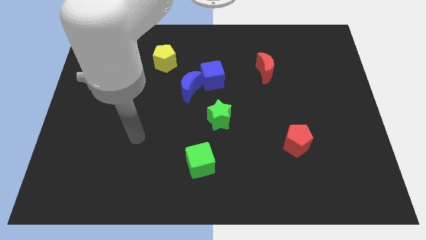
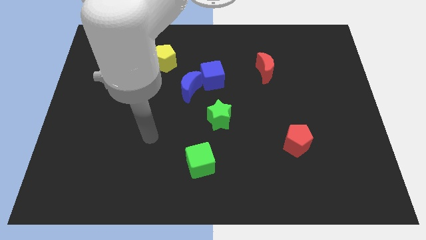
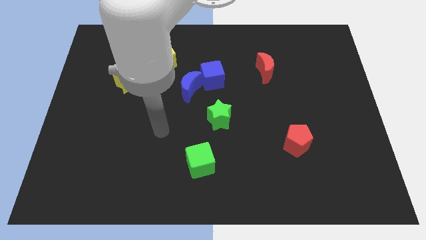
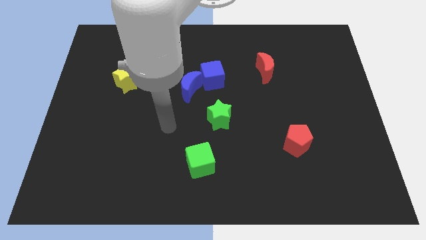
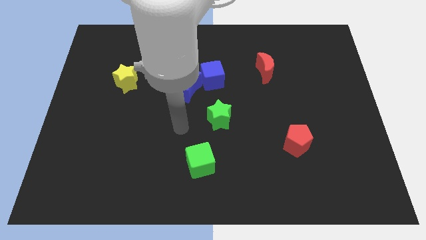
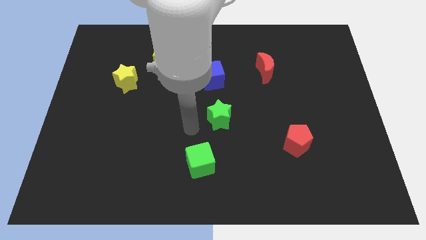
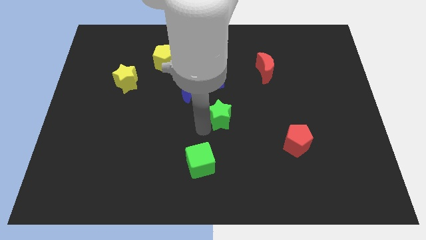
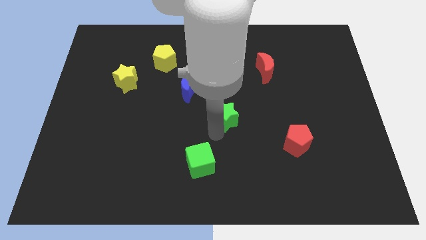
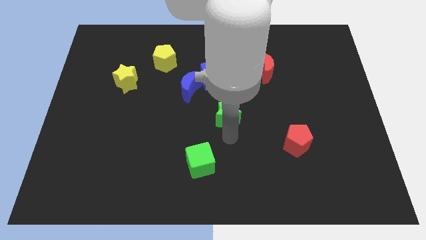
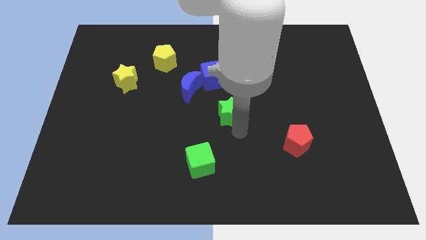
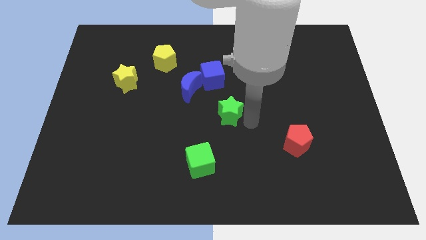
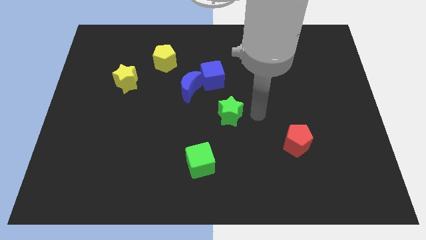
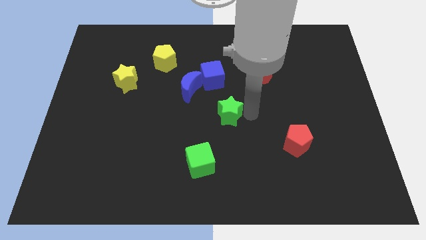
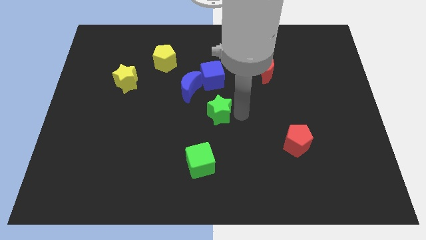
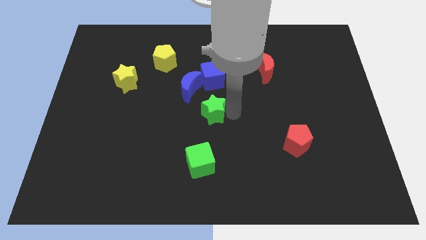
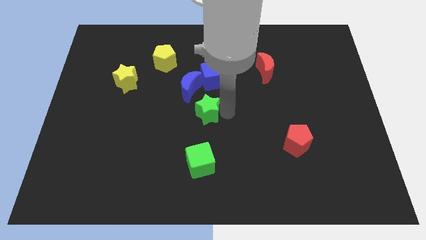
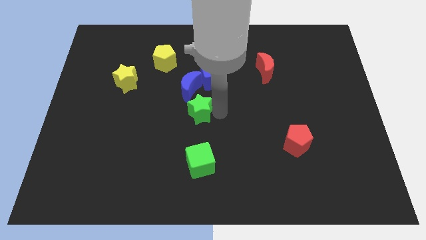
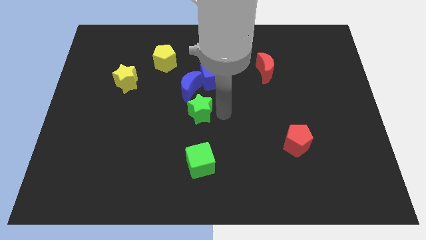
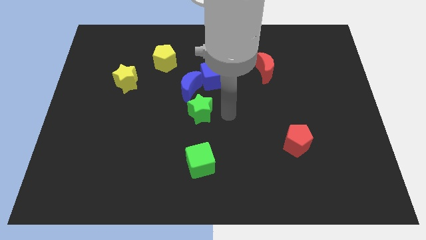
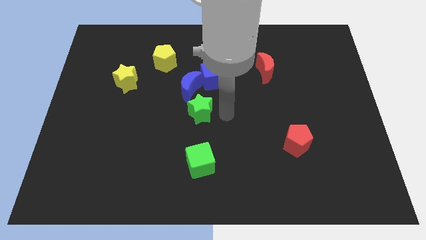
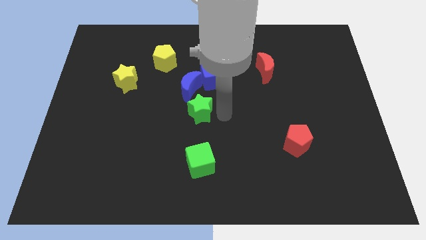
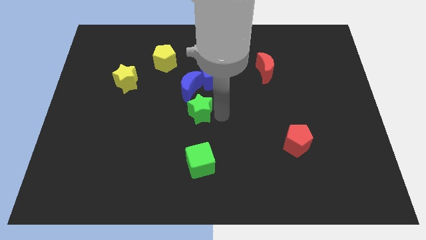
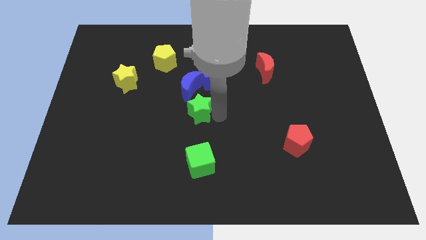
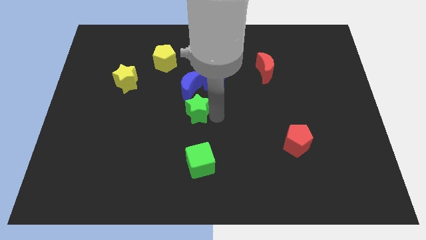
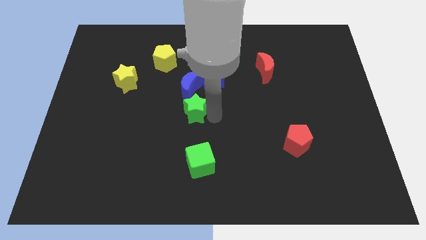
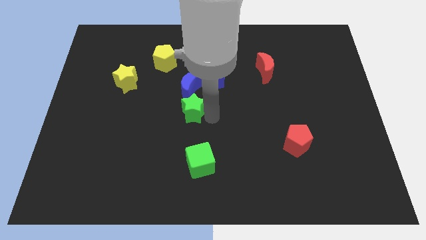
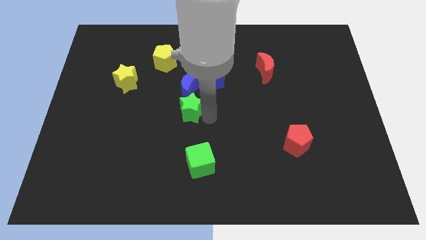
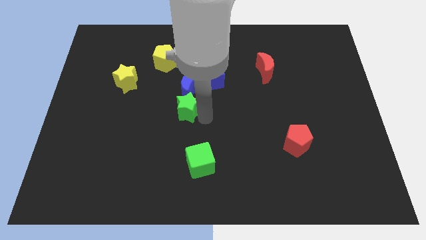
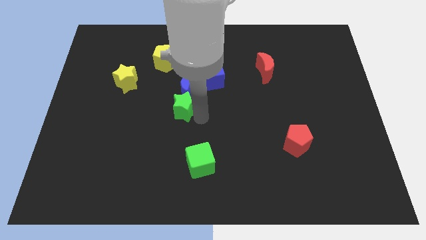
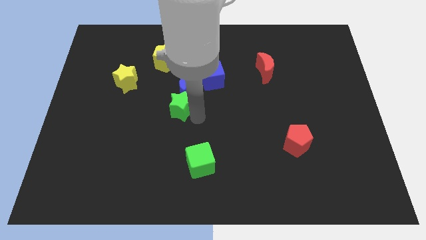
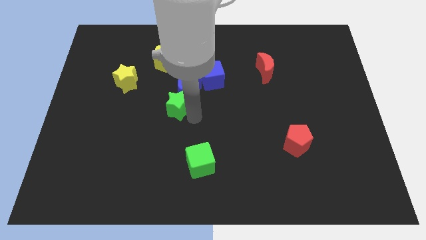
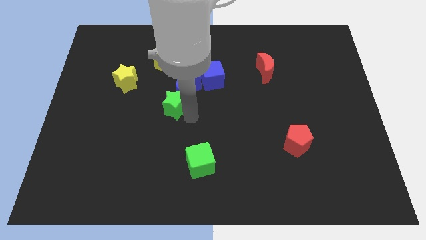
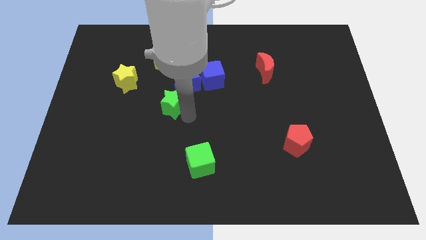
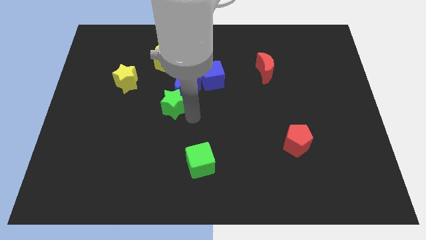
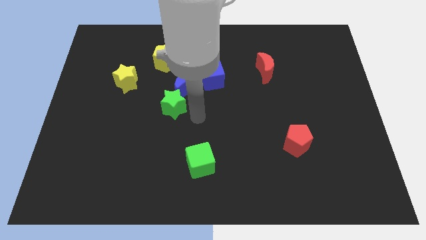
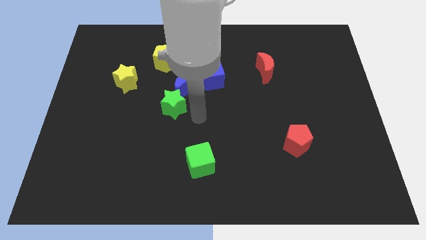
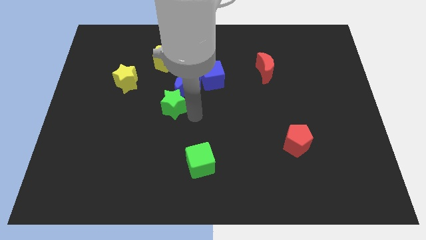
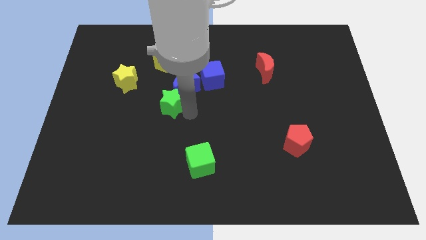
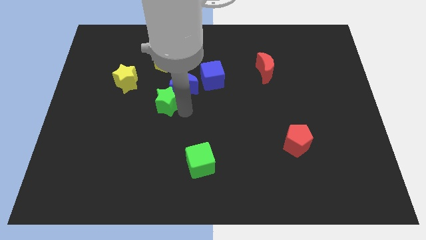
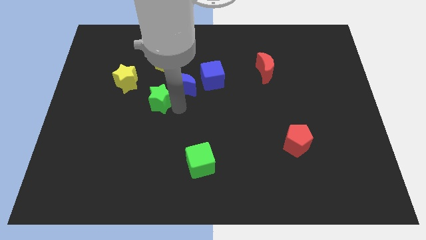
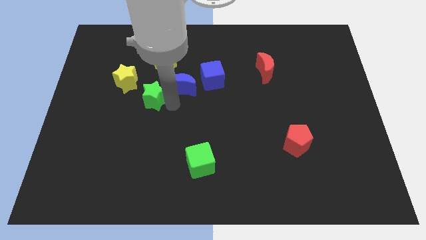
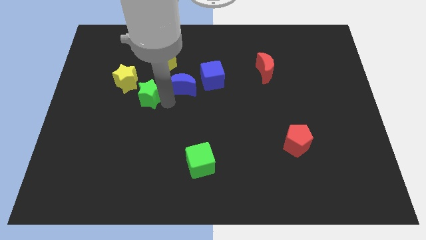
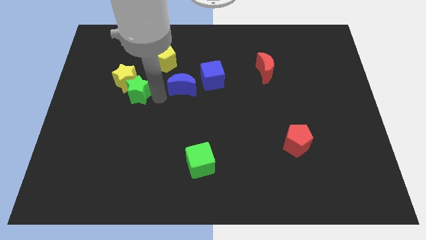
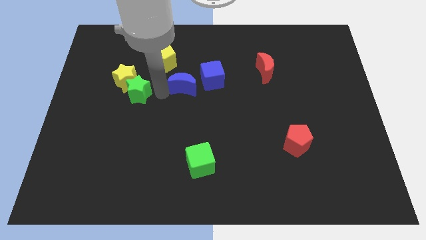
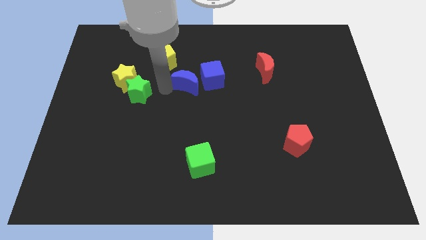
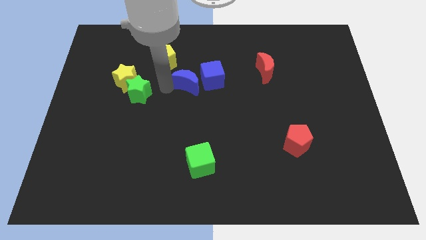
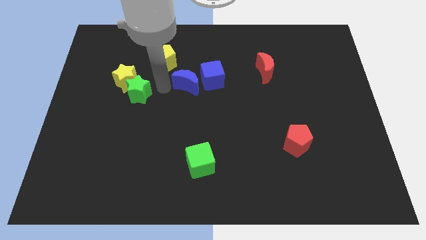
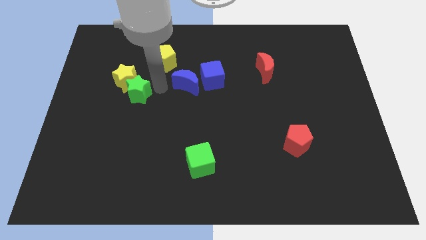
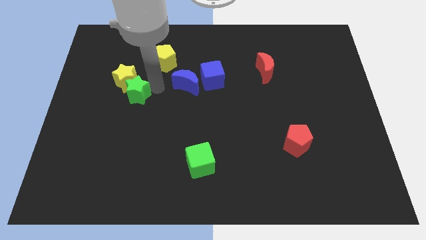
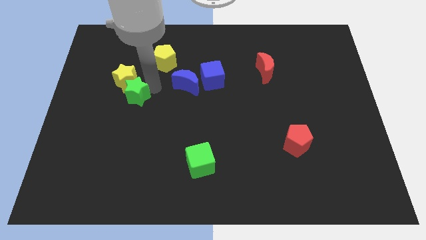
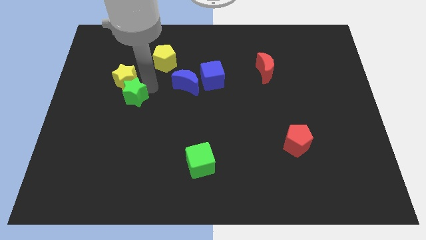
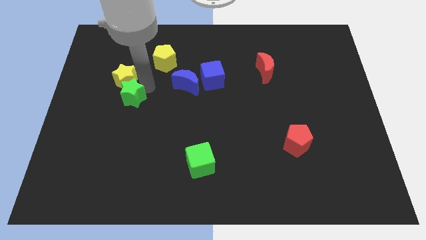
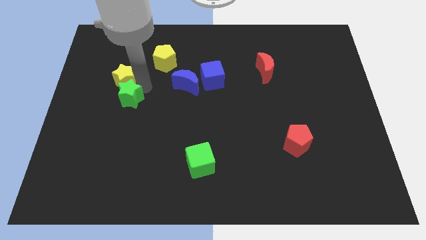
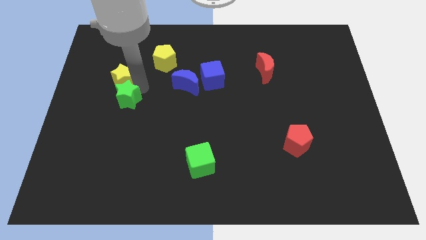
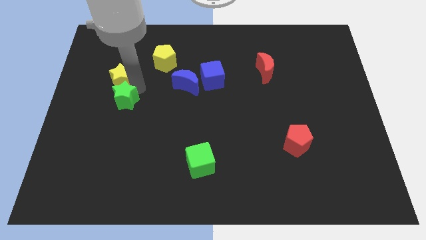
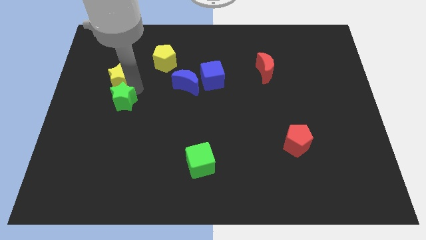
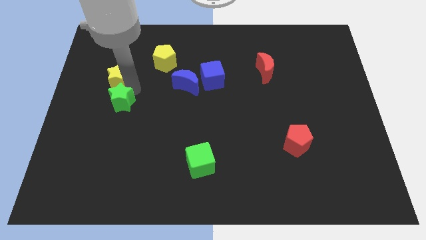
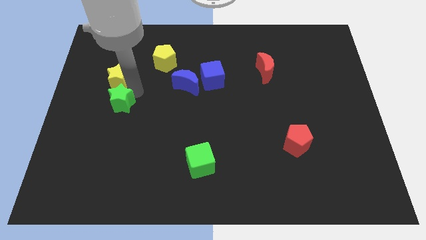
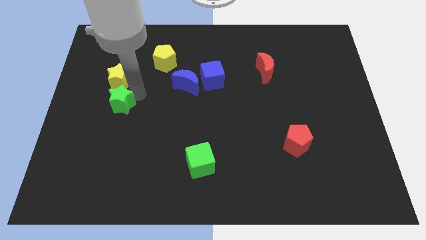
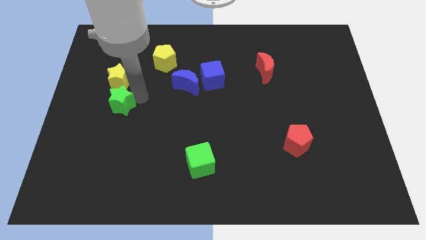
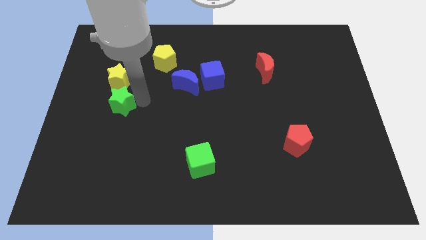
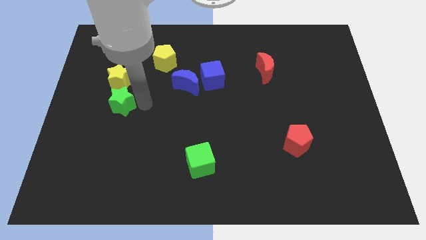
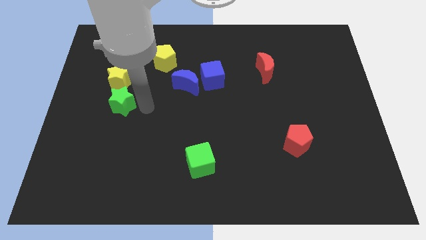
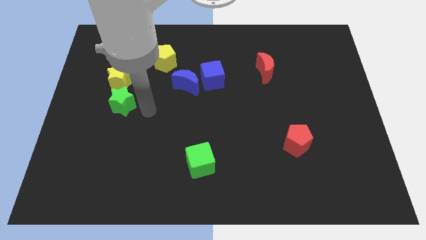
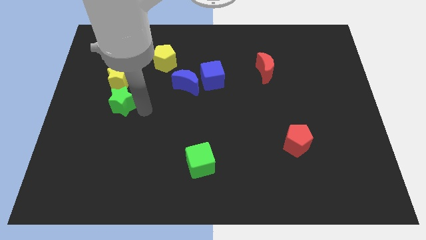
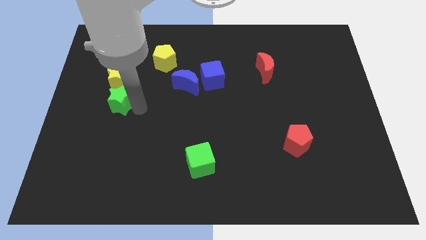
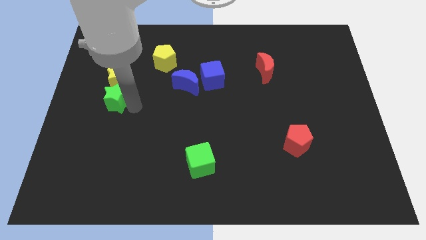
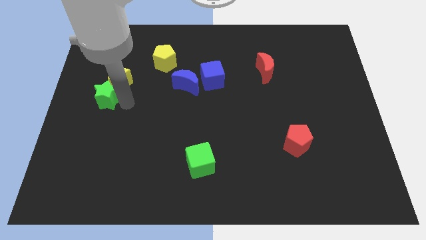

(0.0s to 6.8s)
move the green star to the left side of the board
